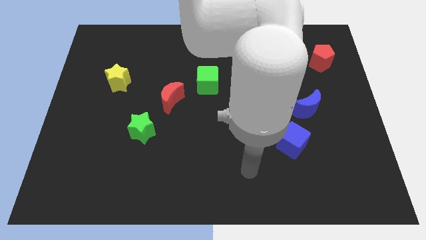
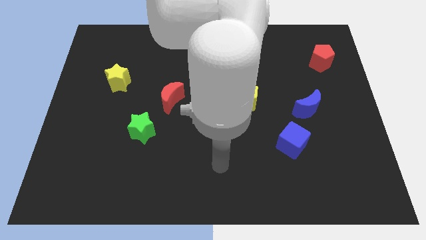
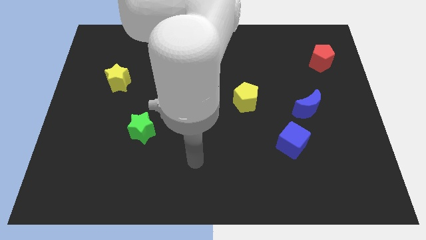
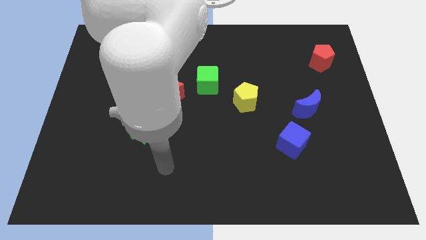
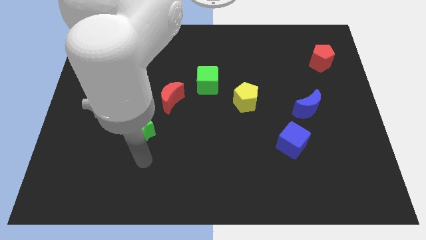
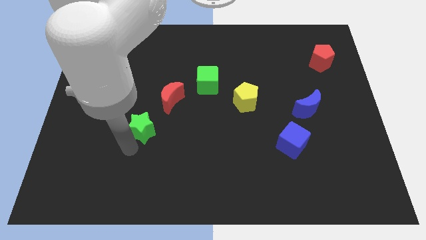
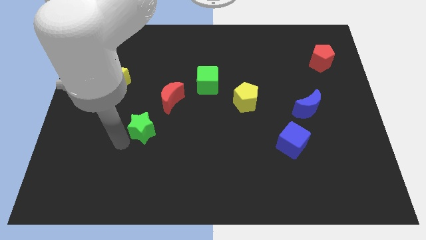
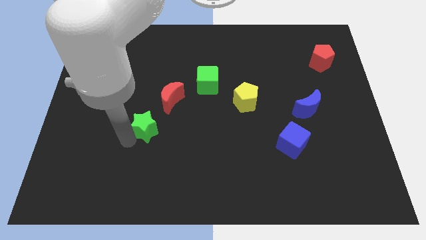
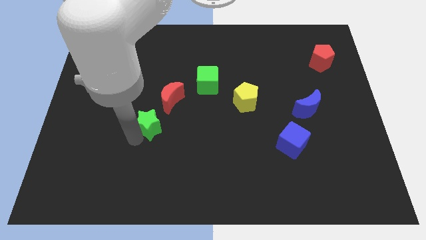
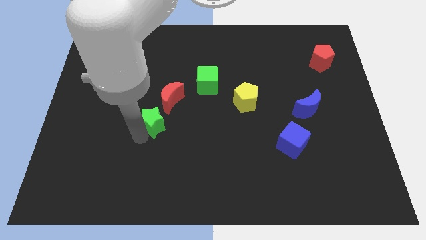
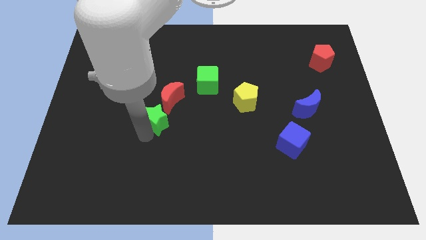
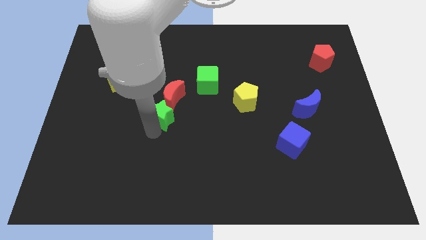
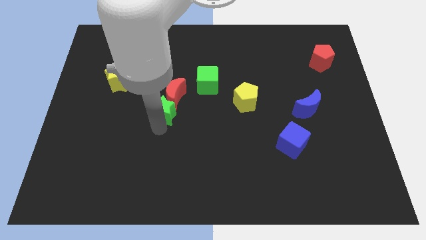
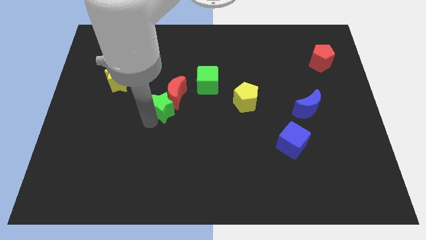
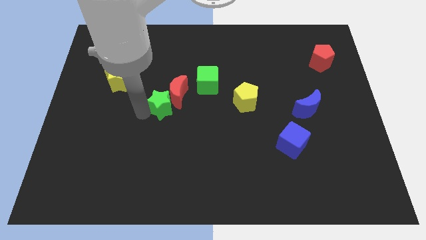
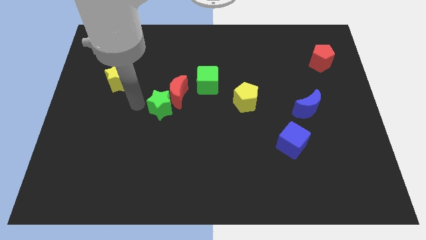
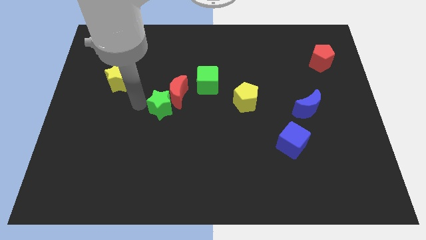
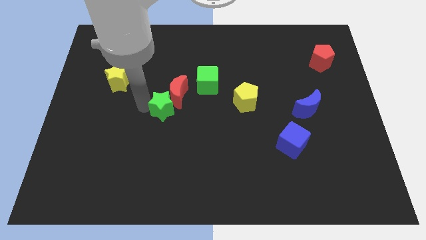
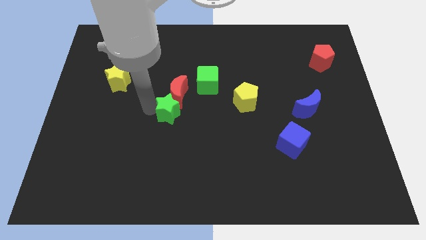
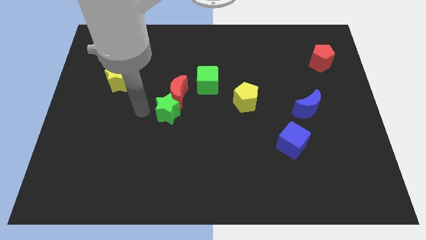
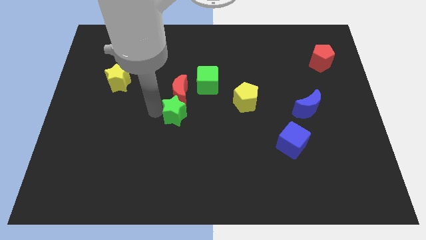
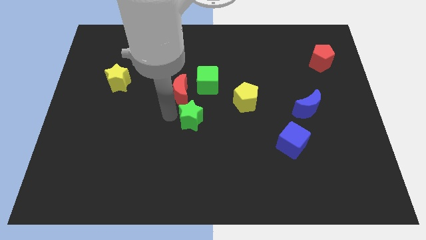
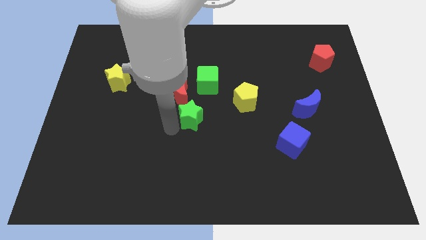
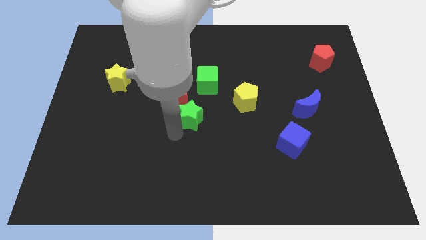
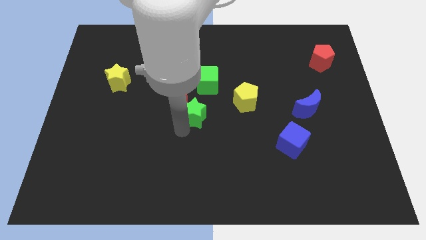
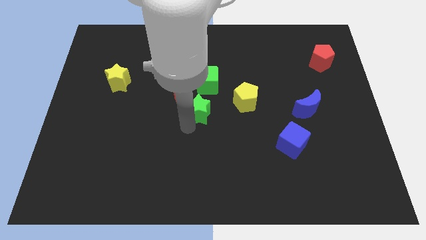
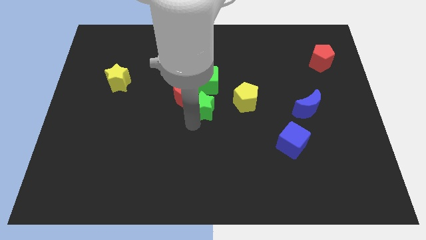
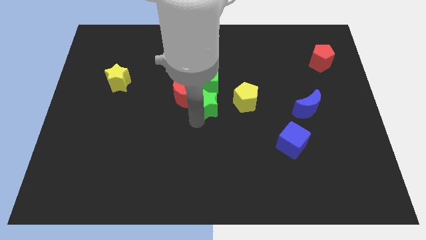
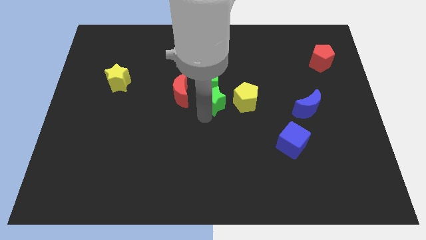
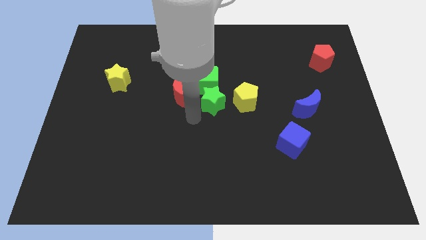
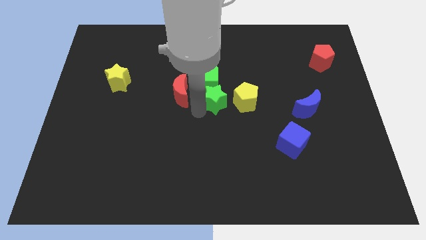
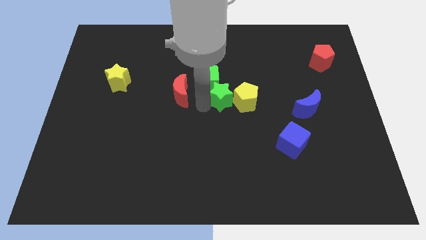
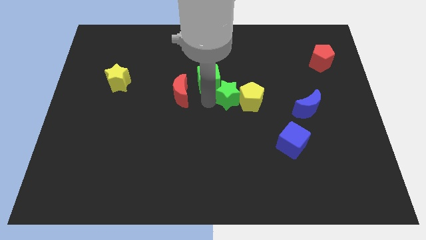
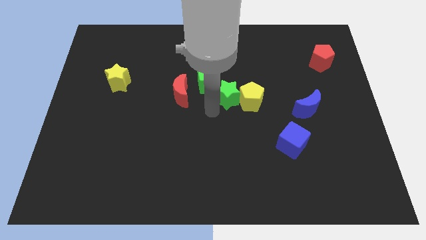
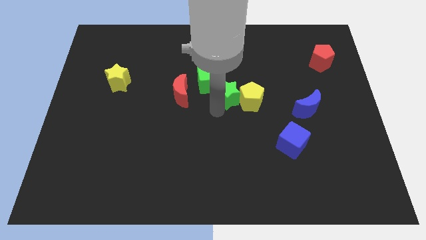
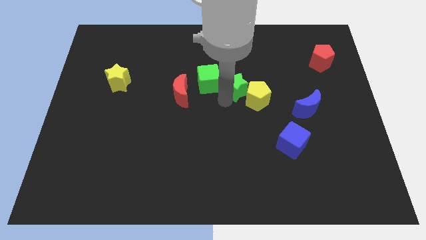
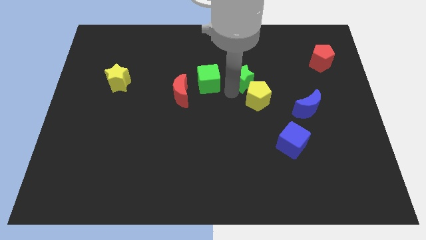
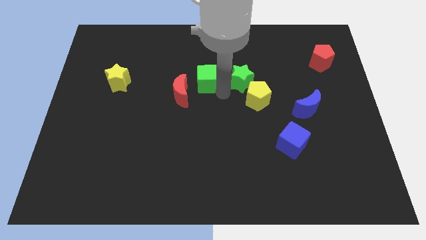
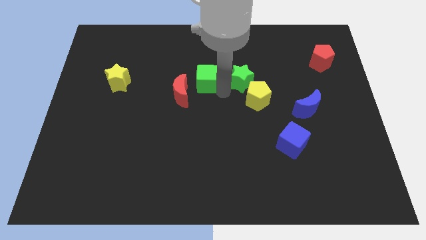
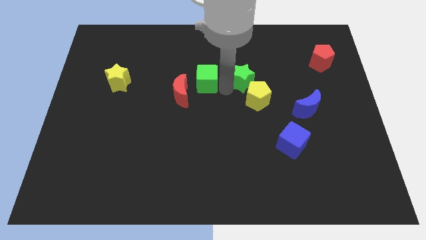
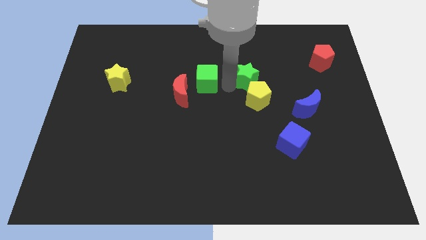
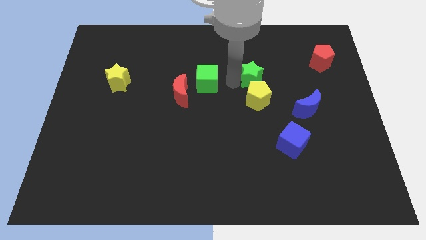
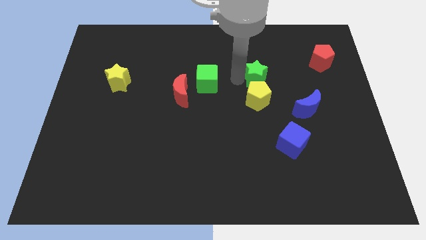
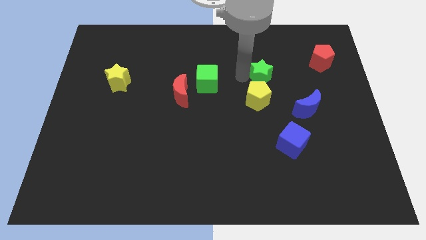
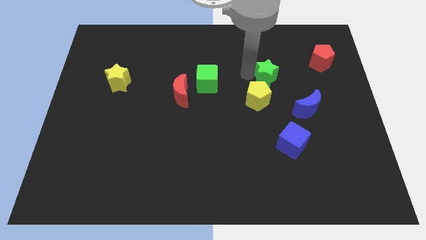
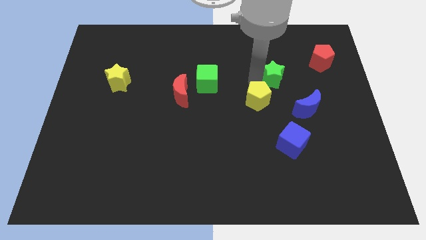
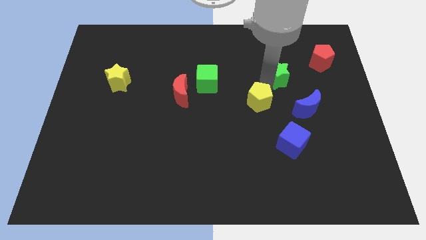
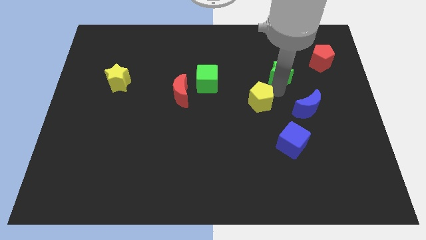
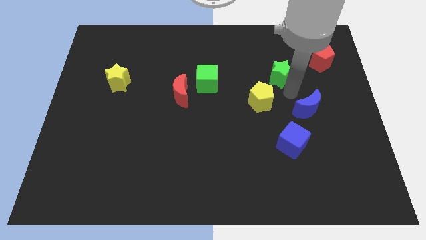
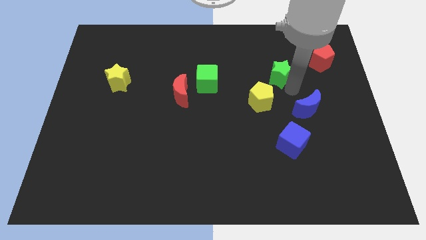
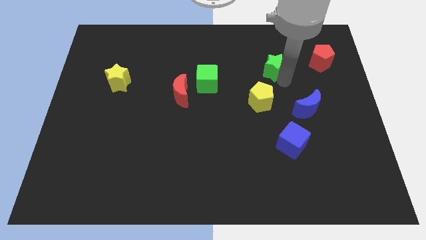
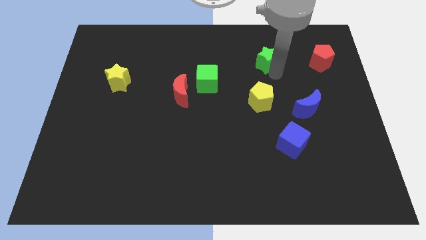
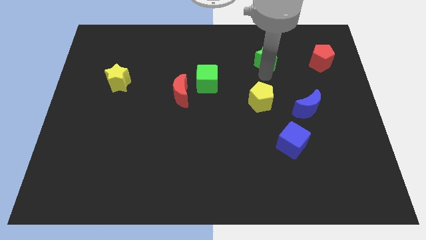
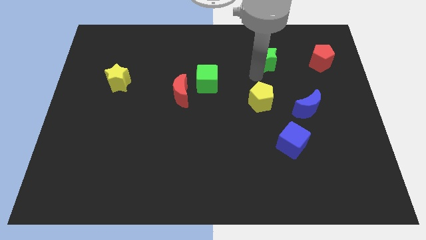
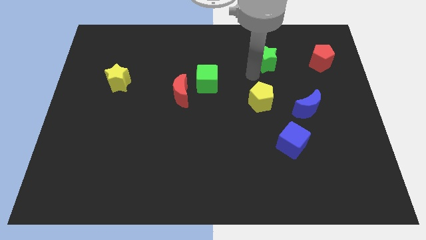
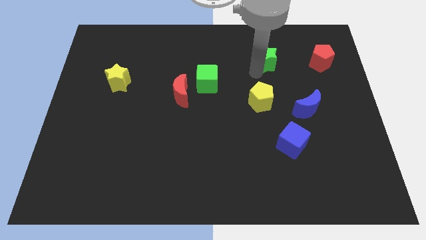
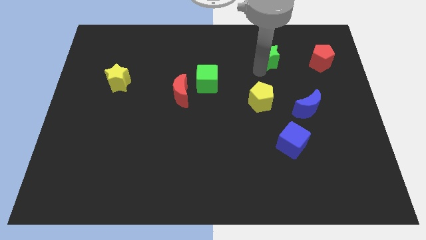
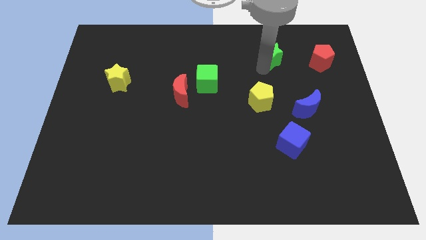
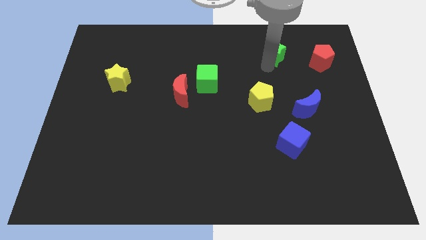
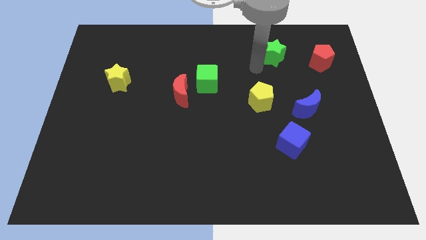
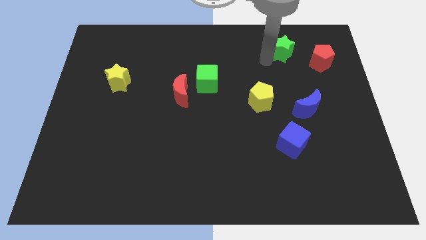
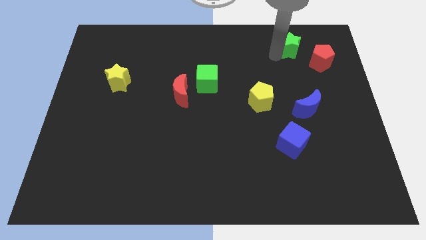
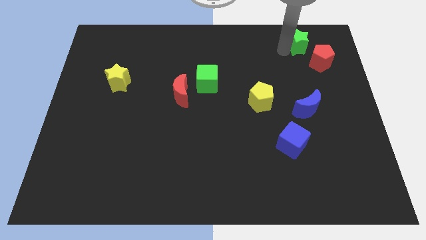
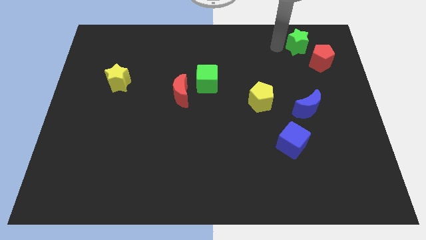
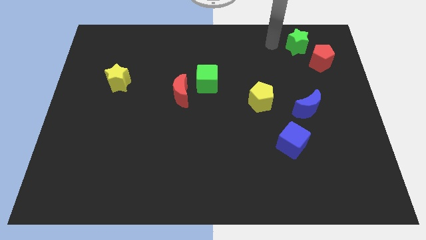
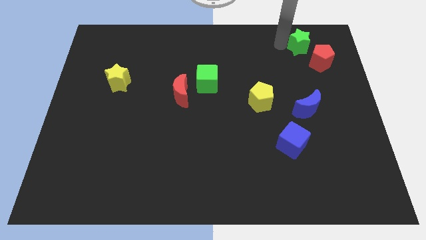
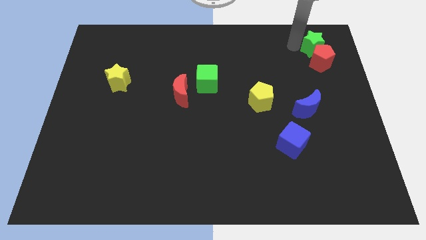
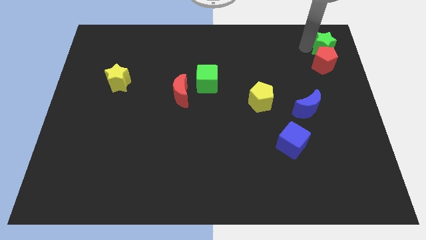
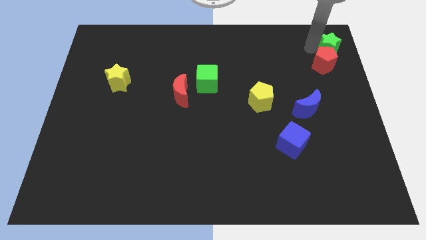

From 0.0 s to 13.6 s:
move the green star to the upper right corner
